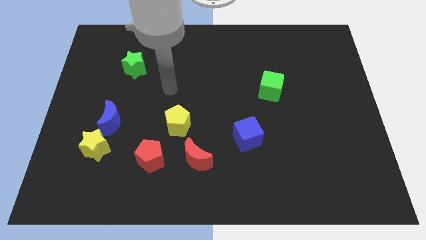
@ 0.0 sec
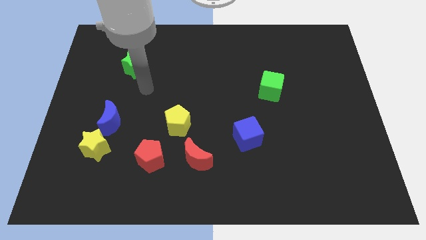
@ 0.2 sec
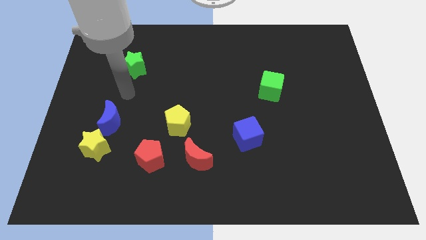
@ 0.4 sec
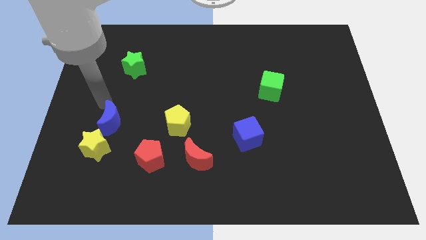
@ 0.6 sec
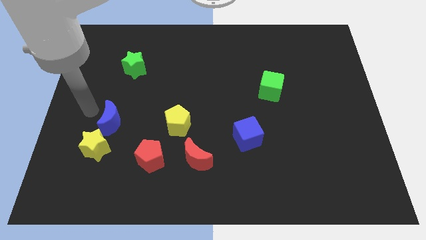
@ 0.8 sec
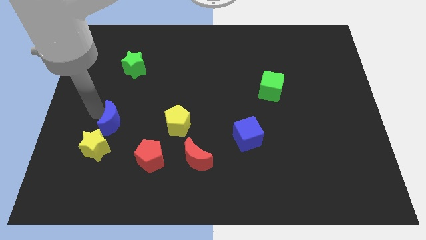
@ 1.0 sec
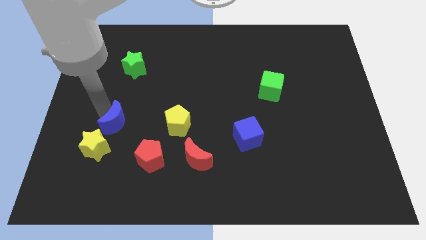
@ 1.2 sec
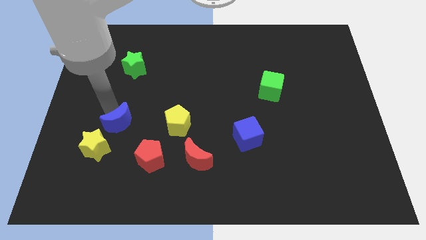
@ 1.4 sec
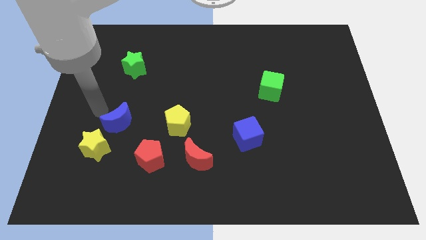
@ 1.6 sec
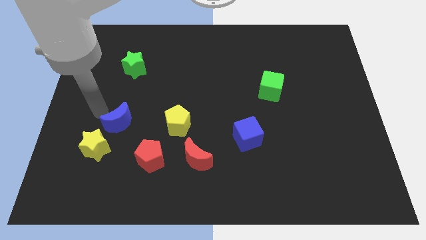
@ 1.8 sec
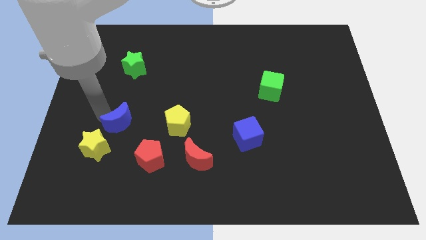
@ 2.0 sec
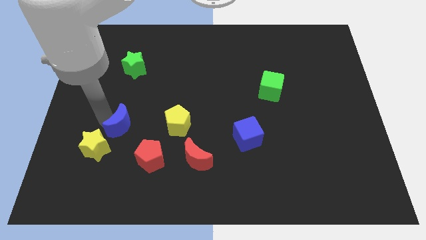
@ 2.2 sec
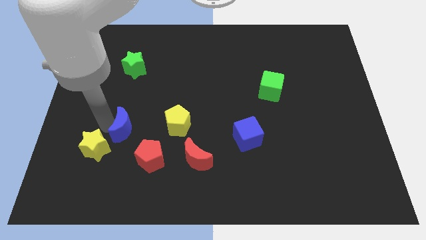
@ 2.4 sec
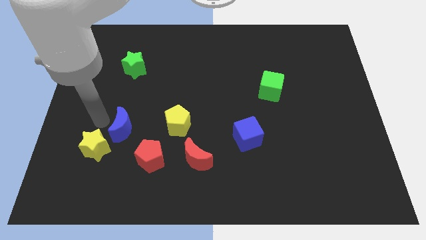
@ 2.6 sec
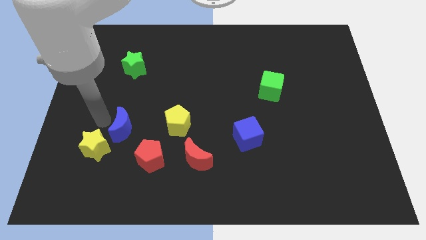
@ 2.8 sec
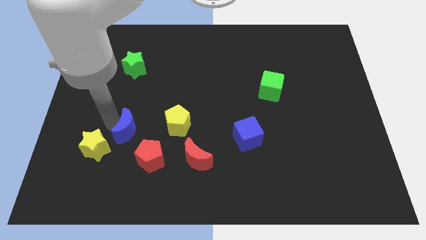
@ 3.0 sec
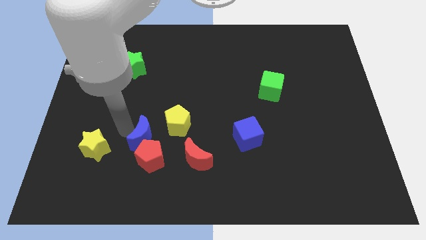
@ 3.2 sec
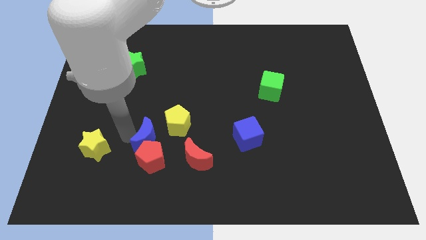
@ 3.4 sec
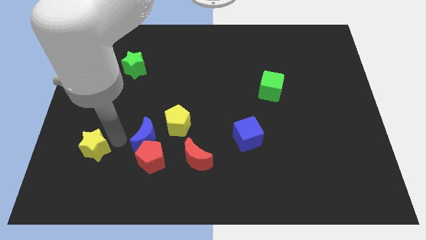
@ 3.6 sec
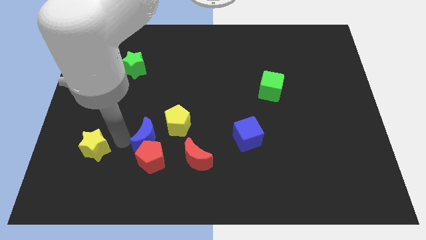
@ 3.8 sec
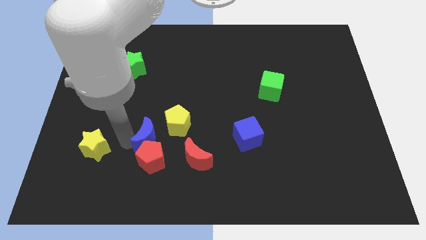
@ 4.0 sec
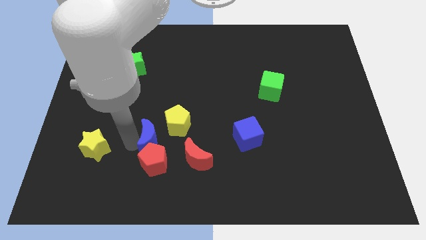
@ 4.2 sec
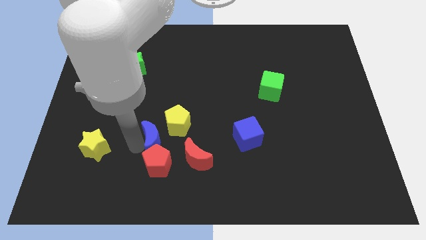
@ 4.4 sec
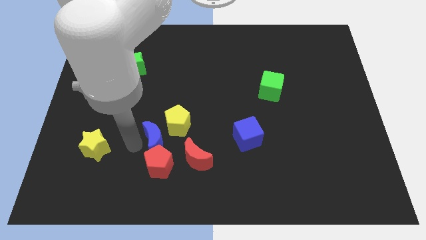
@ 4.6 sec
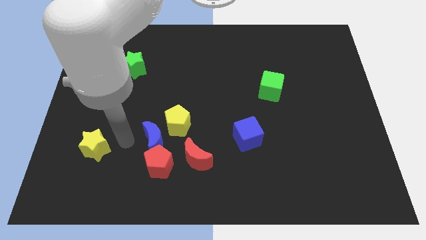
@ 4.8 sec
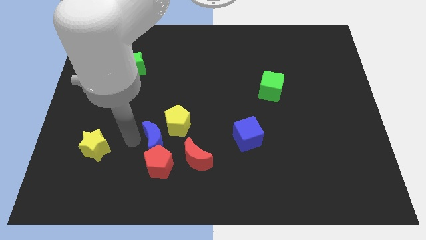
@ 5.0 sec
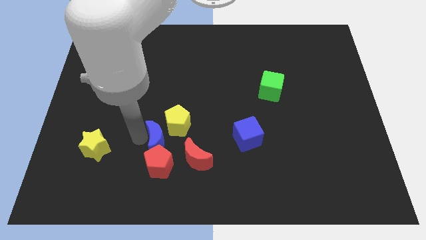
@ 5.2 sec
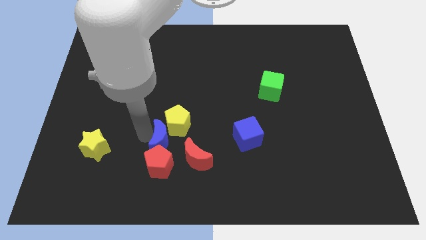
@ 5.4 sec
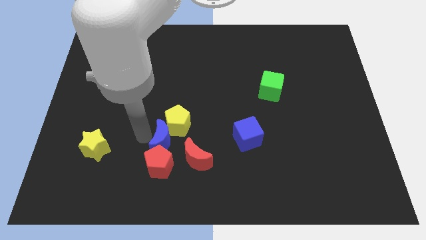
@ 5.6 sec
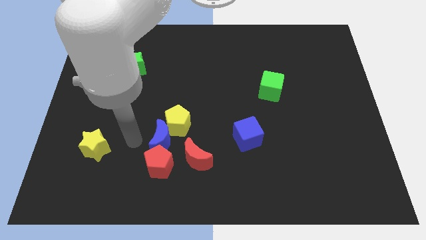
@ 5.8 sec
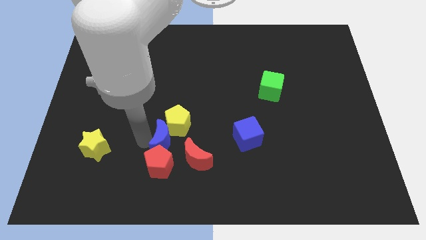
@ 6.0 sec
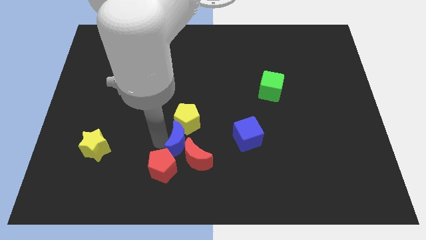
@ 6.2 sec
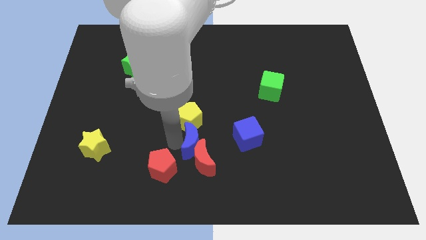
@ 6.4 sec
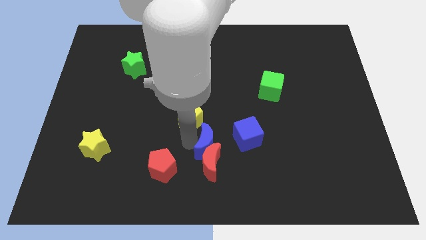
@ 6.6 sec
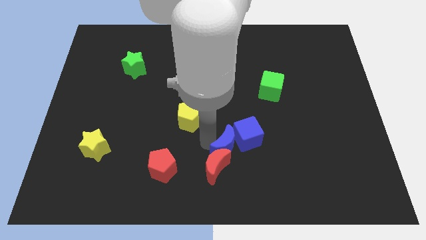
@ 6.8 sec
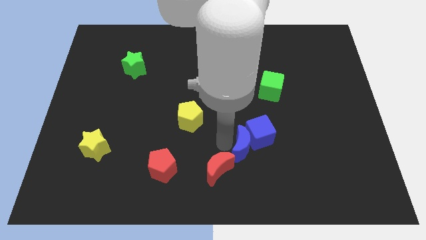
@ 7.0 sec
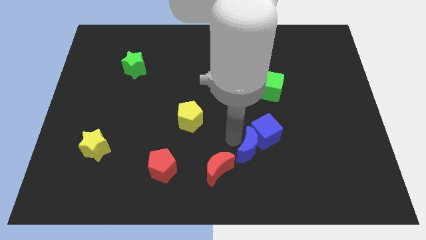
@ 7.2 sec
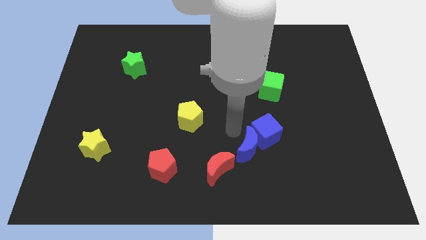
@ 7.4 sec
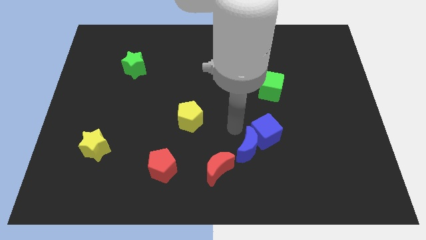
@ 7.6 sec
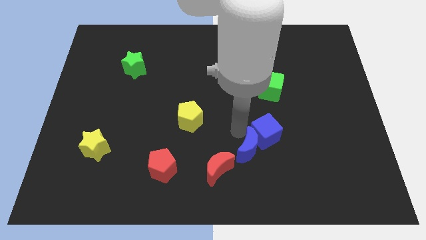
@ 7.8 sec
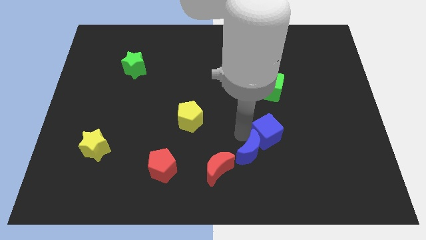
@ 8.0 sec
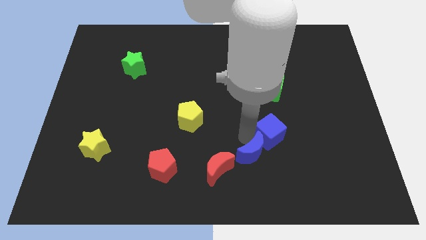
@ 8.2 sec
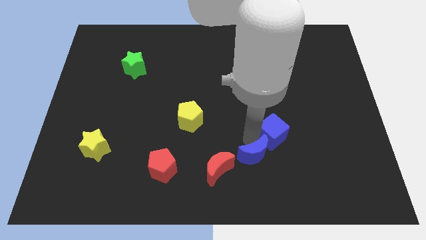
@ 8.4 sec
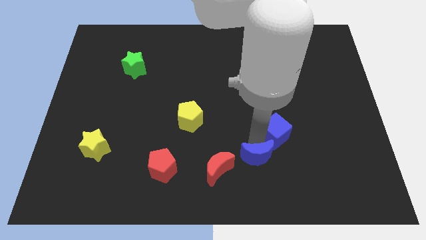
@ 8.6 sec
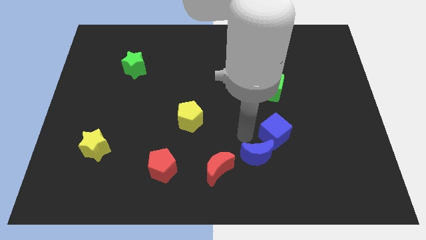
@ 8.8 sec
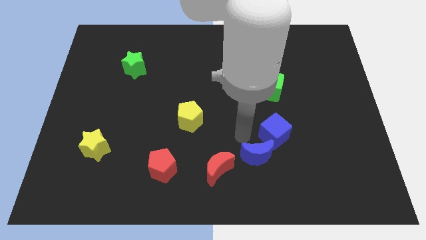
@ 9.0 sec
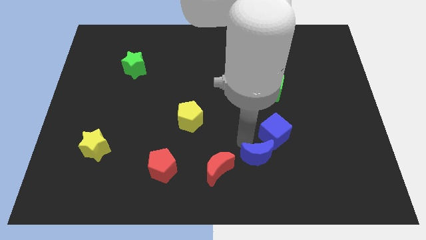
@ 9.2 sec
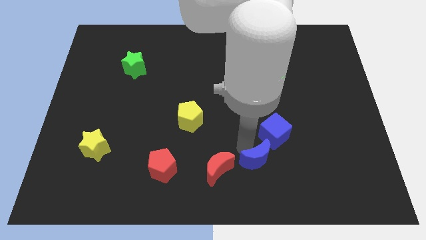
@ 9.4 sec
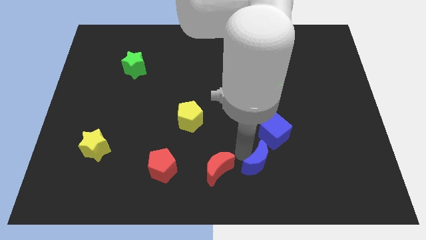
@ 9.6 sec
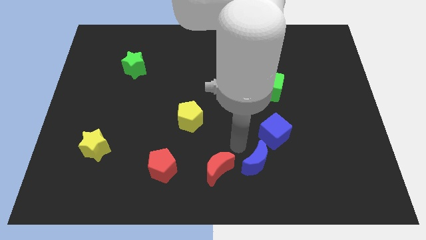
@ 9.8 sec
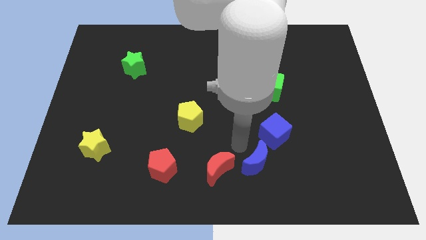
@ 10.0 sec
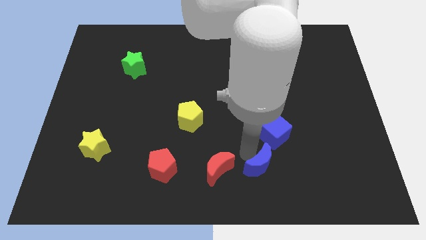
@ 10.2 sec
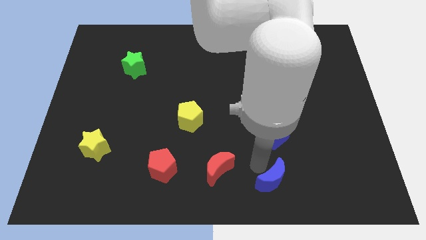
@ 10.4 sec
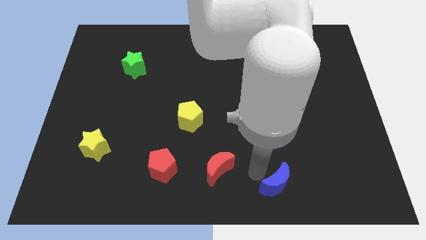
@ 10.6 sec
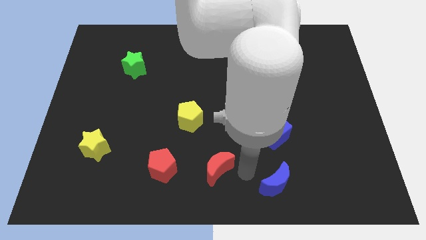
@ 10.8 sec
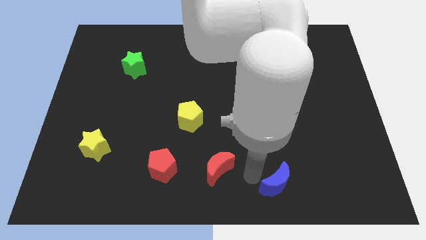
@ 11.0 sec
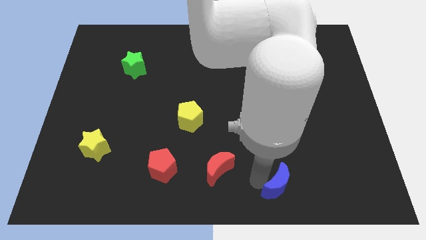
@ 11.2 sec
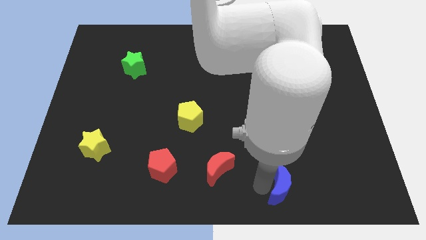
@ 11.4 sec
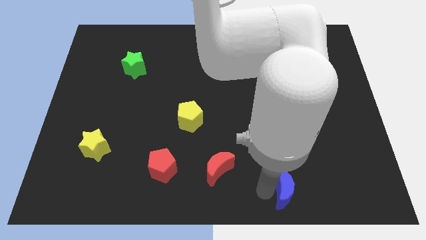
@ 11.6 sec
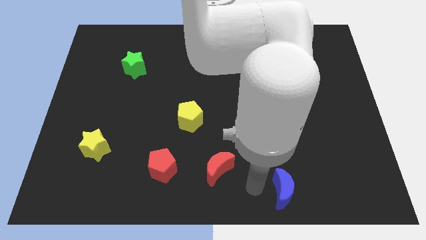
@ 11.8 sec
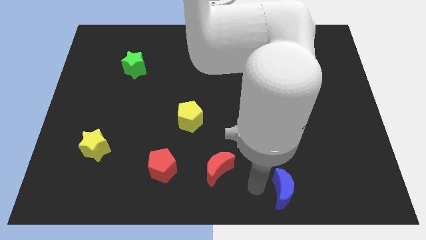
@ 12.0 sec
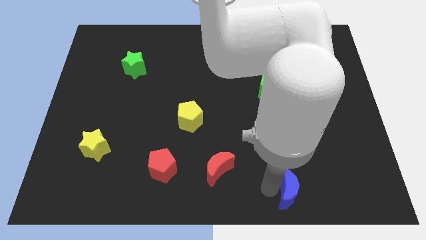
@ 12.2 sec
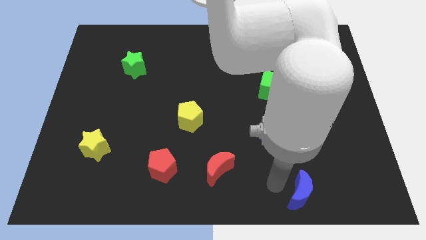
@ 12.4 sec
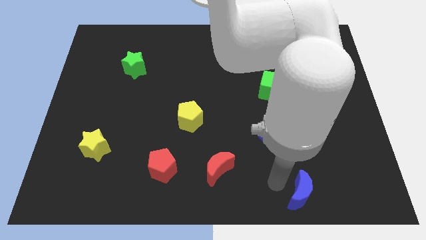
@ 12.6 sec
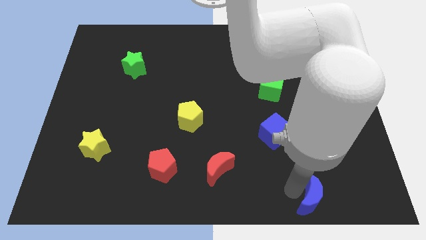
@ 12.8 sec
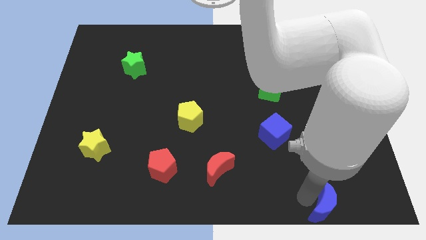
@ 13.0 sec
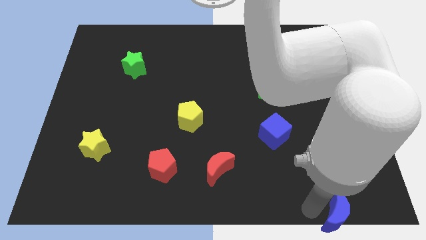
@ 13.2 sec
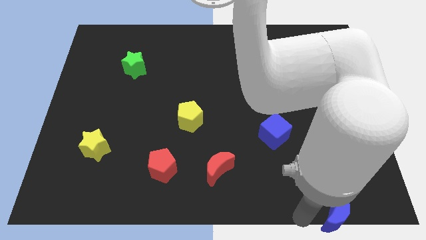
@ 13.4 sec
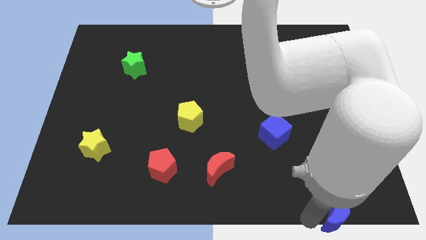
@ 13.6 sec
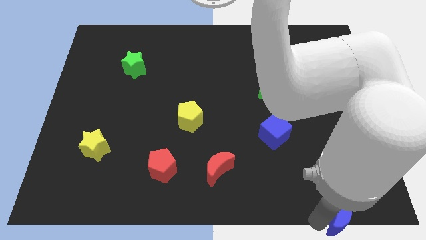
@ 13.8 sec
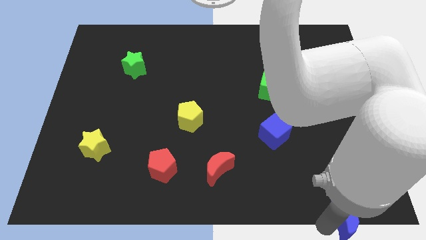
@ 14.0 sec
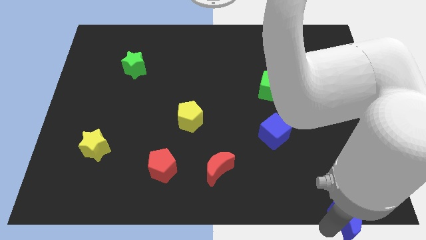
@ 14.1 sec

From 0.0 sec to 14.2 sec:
push the blue moon to the bottom right of the board
